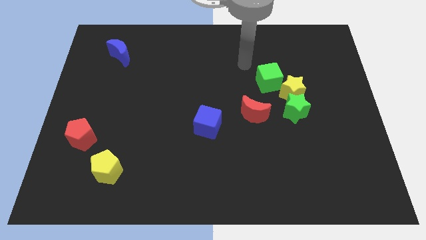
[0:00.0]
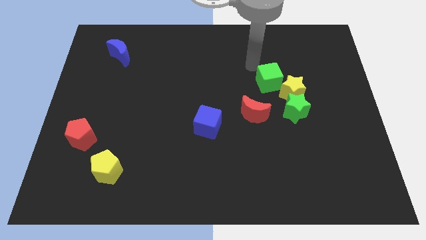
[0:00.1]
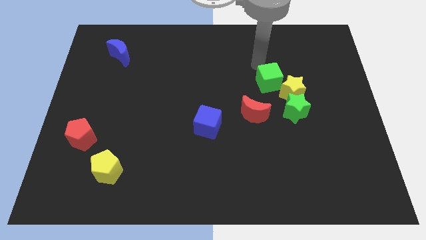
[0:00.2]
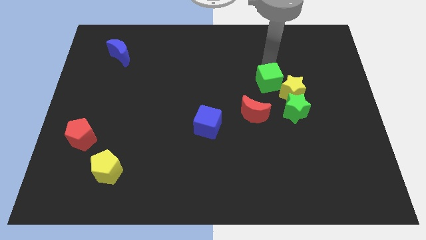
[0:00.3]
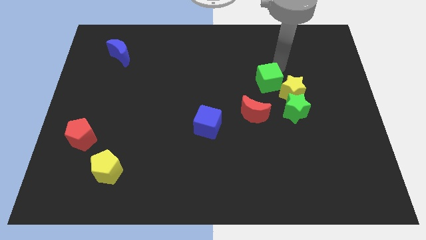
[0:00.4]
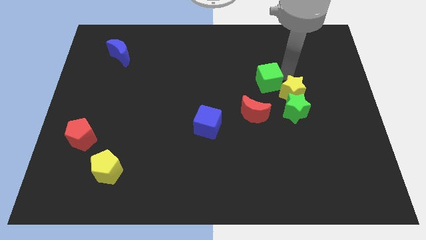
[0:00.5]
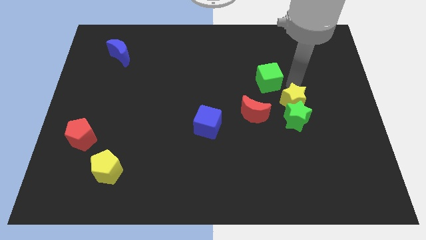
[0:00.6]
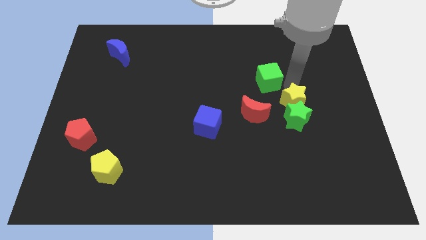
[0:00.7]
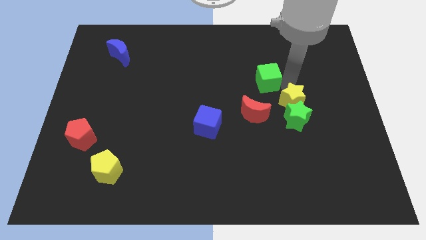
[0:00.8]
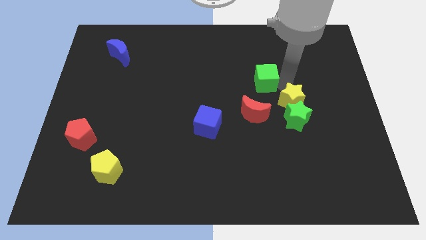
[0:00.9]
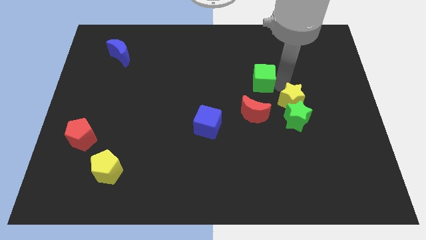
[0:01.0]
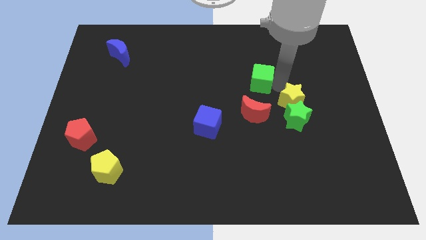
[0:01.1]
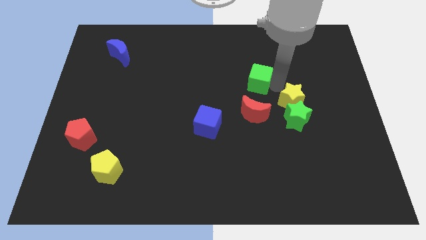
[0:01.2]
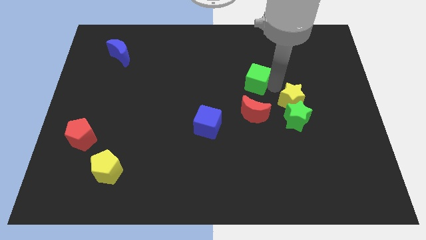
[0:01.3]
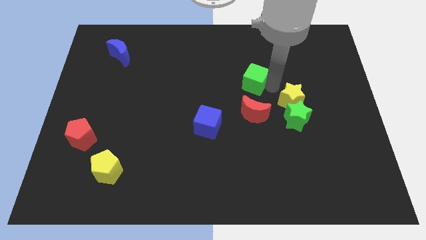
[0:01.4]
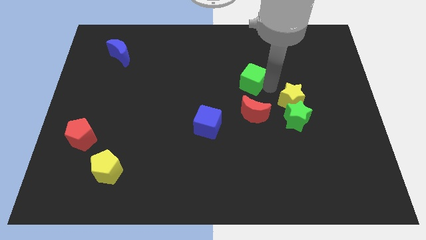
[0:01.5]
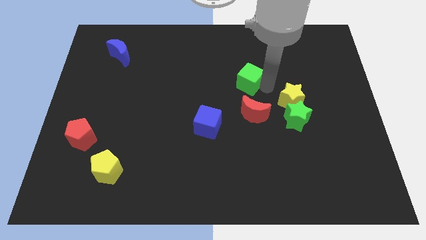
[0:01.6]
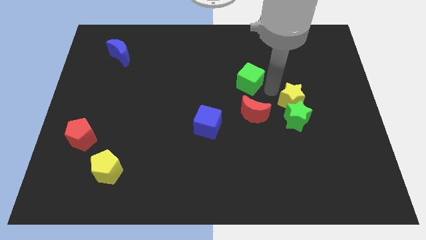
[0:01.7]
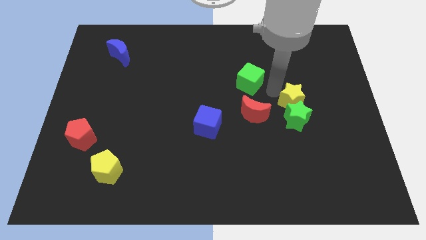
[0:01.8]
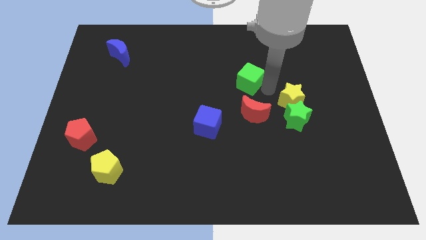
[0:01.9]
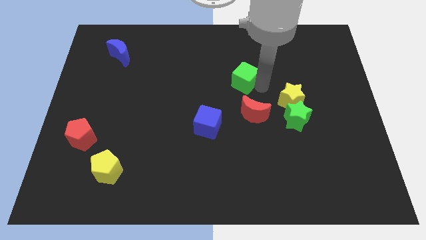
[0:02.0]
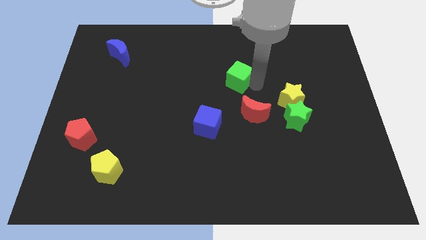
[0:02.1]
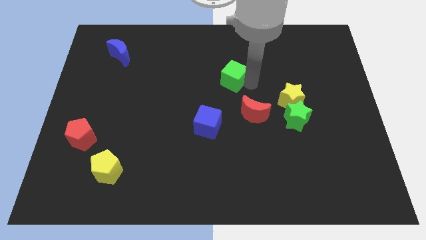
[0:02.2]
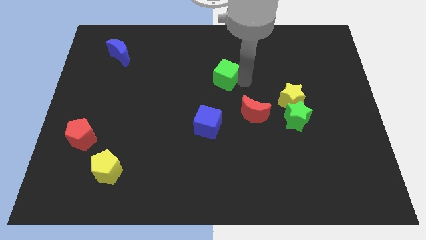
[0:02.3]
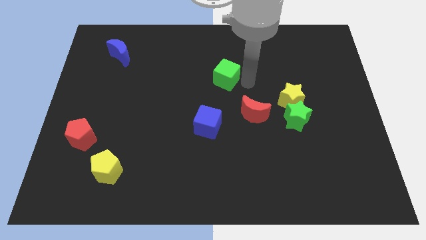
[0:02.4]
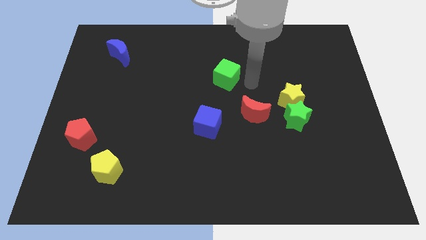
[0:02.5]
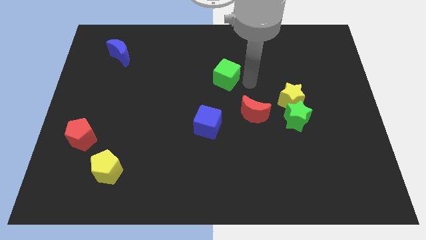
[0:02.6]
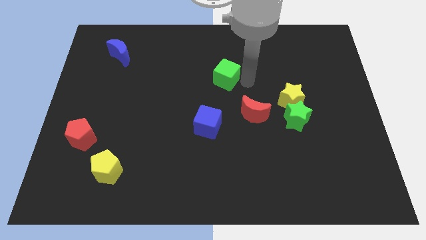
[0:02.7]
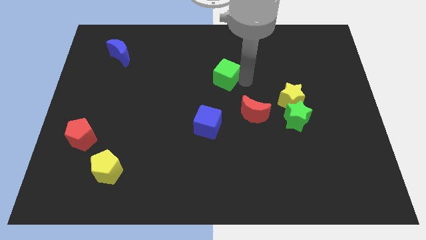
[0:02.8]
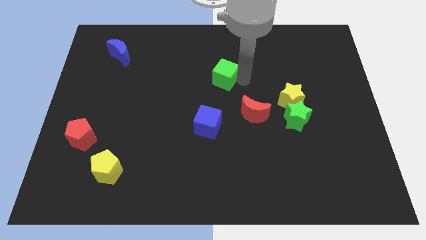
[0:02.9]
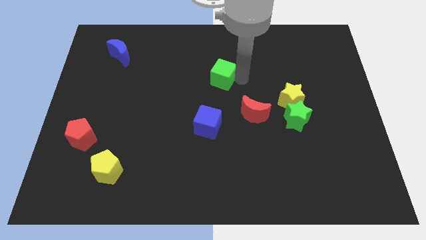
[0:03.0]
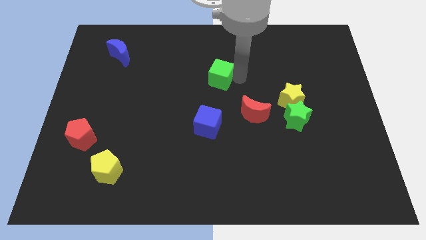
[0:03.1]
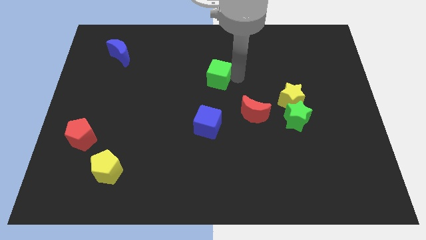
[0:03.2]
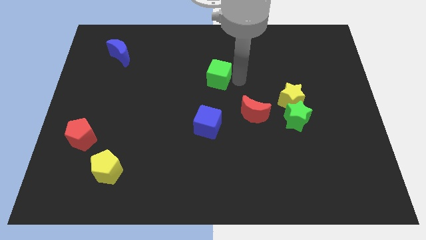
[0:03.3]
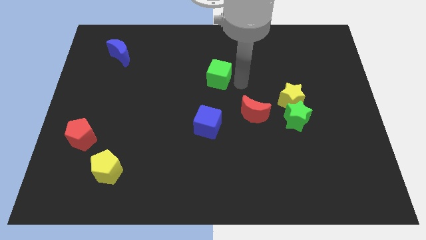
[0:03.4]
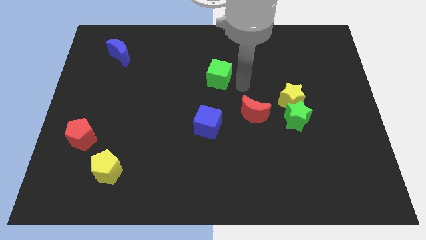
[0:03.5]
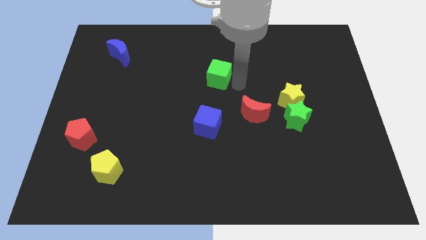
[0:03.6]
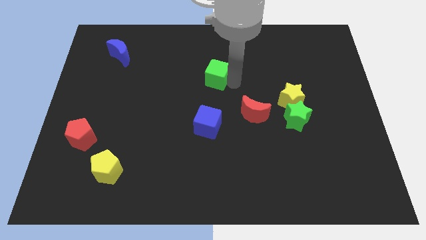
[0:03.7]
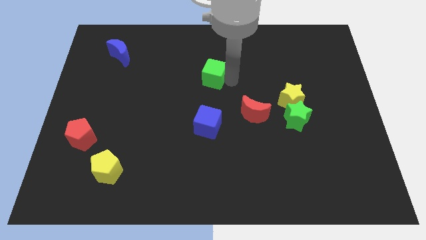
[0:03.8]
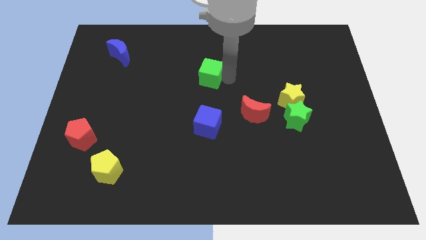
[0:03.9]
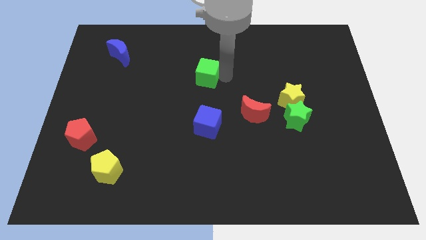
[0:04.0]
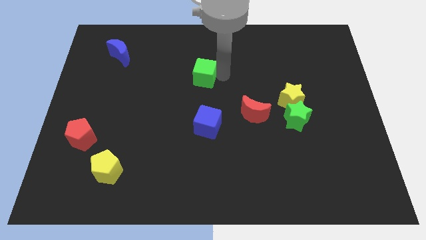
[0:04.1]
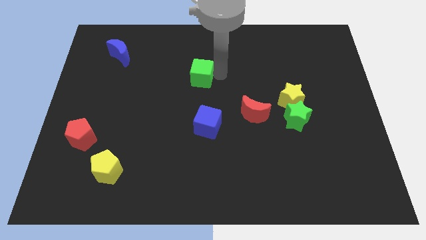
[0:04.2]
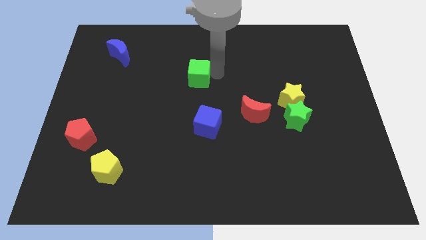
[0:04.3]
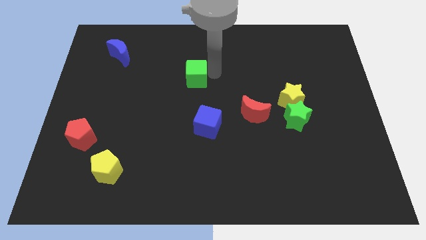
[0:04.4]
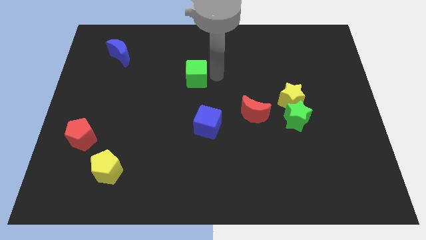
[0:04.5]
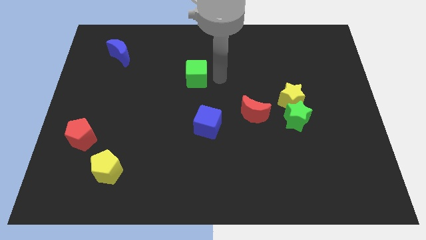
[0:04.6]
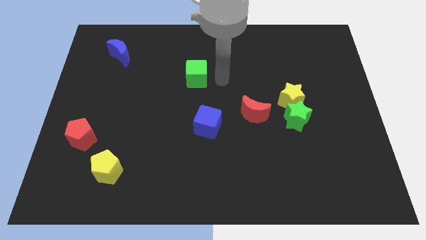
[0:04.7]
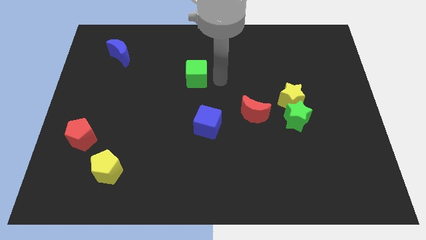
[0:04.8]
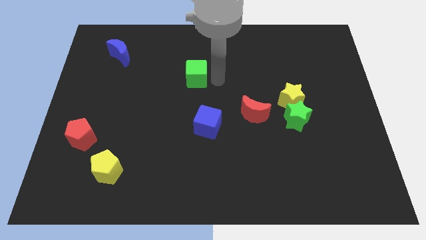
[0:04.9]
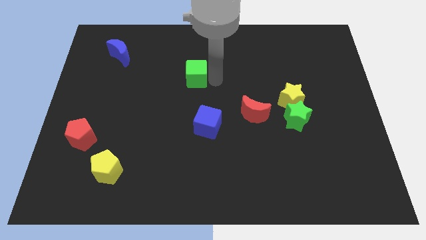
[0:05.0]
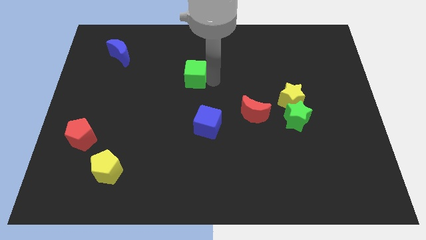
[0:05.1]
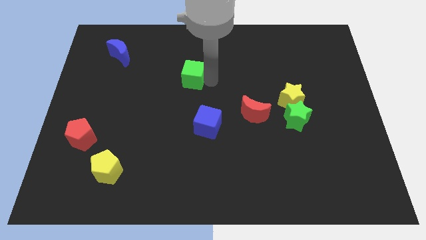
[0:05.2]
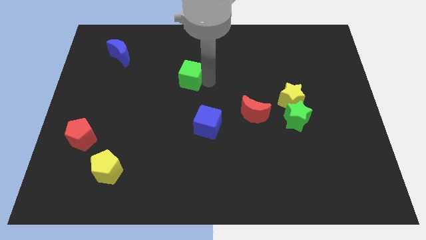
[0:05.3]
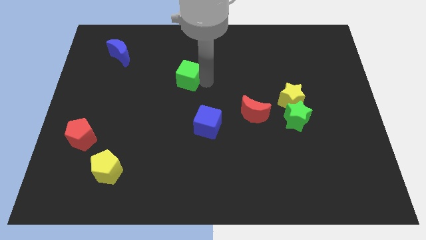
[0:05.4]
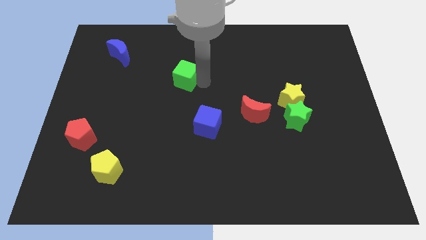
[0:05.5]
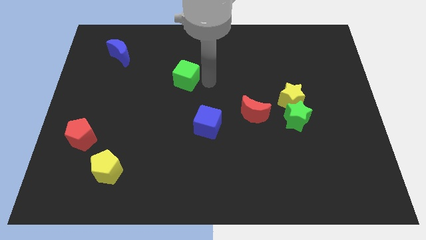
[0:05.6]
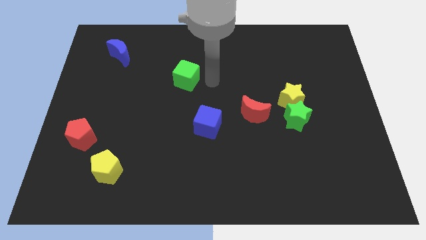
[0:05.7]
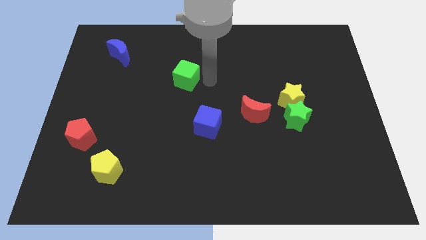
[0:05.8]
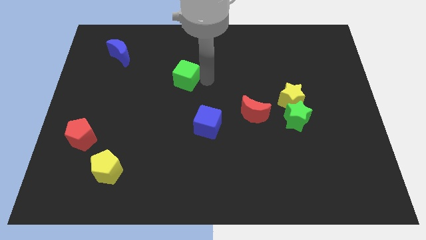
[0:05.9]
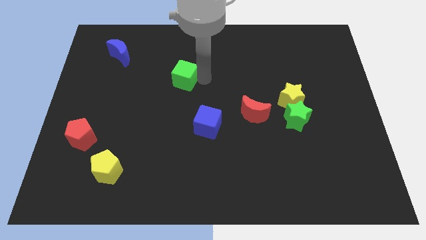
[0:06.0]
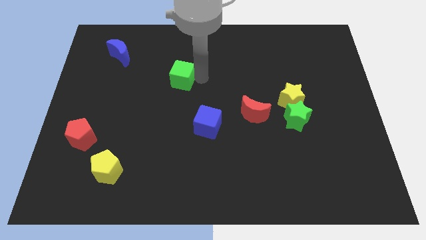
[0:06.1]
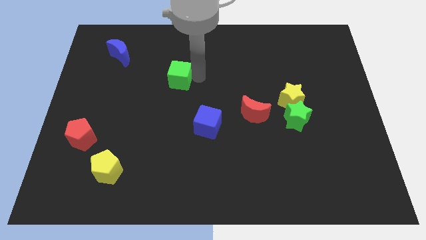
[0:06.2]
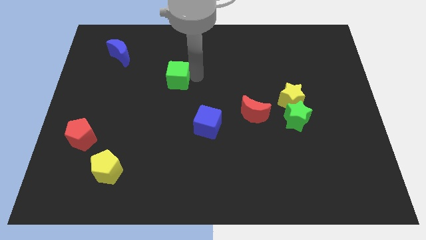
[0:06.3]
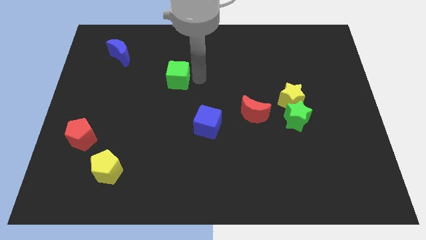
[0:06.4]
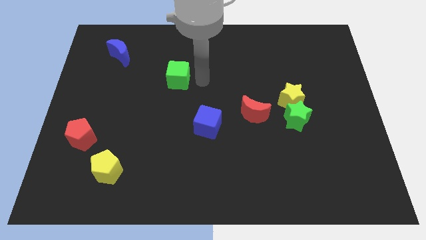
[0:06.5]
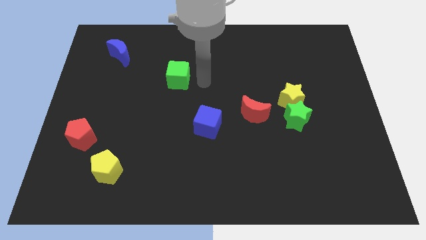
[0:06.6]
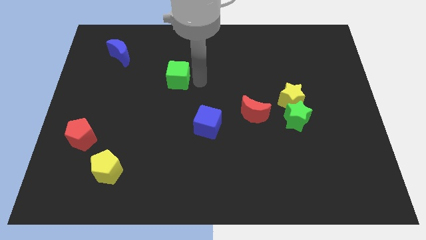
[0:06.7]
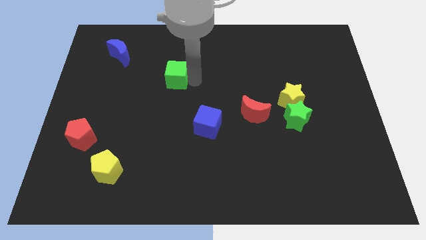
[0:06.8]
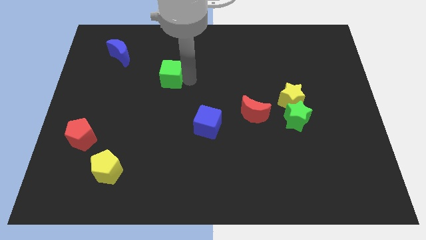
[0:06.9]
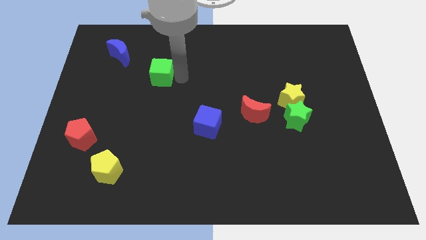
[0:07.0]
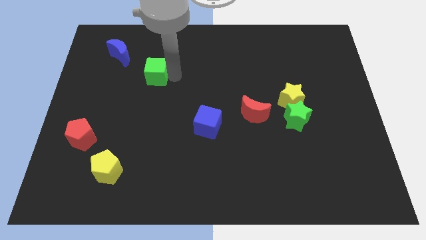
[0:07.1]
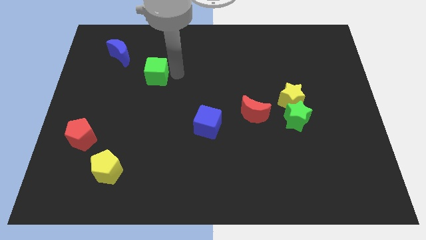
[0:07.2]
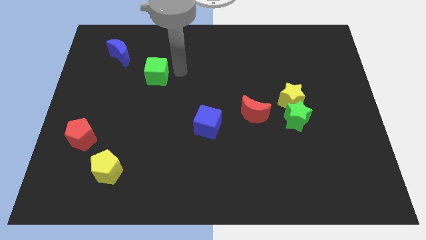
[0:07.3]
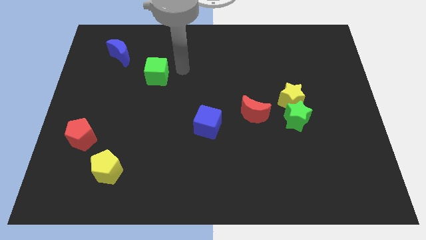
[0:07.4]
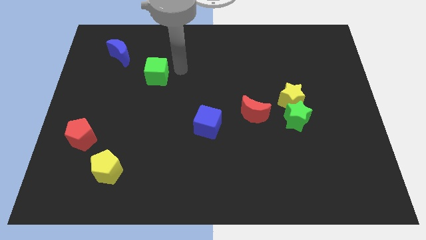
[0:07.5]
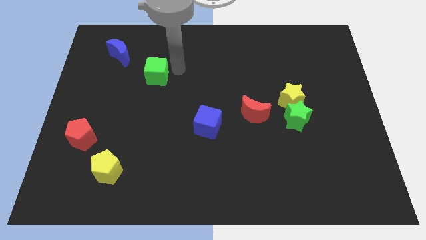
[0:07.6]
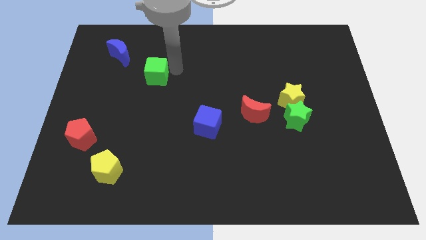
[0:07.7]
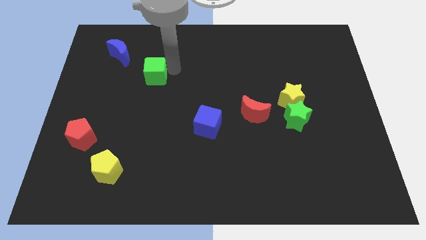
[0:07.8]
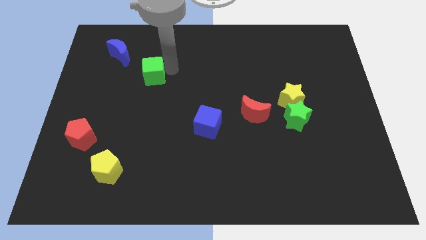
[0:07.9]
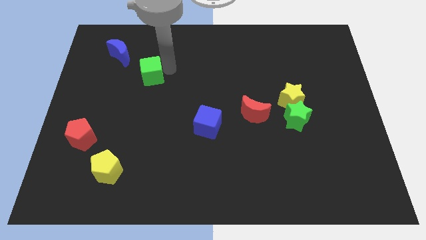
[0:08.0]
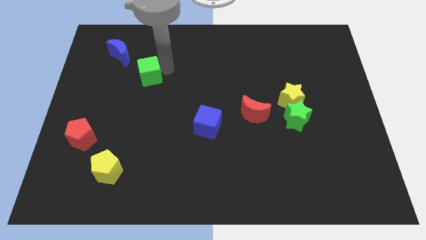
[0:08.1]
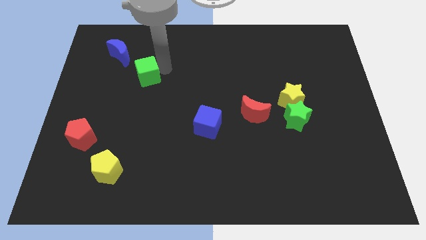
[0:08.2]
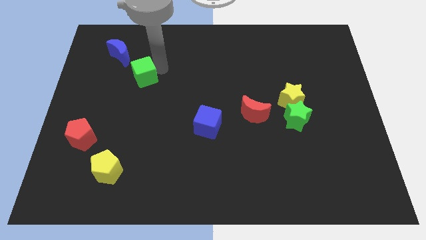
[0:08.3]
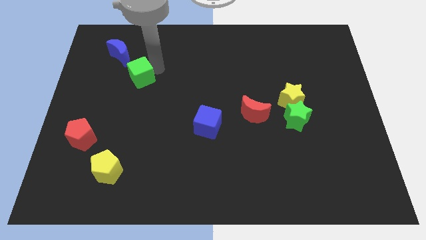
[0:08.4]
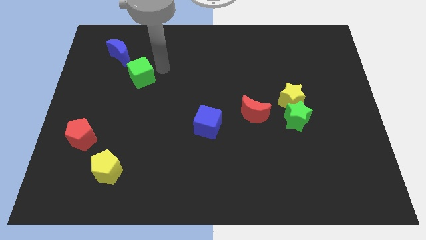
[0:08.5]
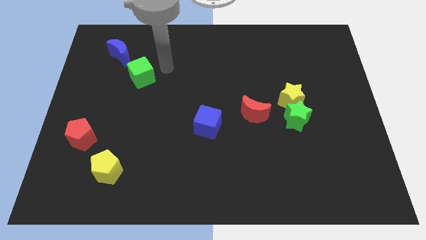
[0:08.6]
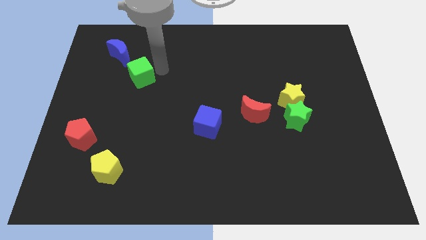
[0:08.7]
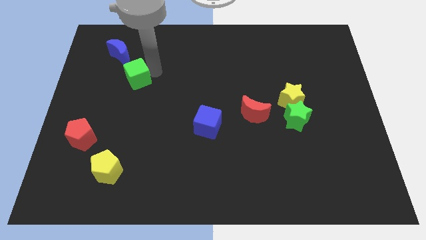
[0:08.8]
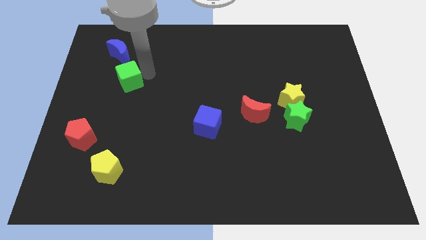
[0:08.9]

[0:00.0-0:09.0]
push the green cube to the bottom side of the blue moon
